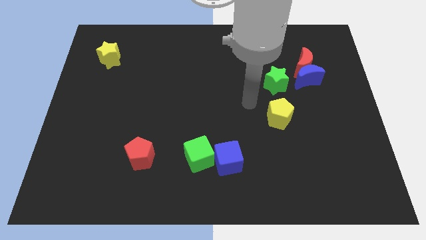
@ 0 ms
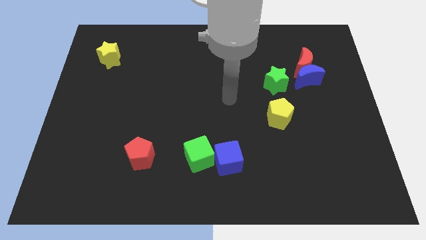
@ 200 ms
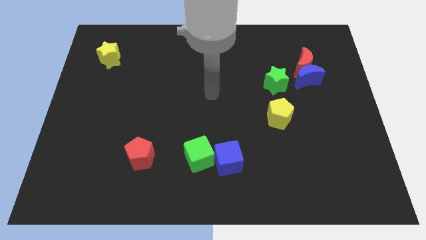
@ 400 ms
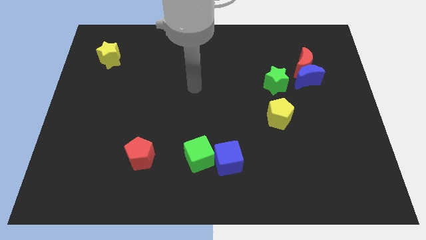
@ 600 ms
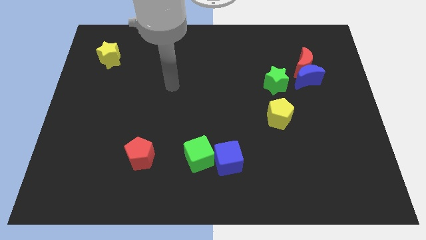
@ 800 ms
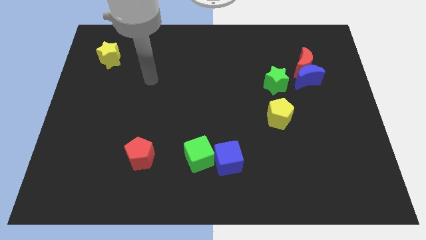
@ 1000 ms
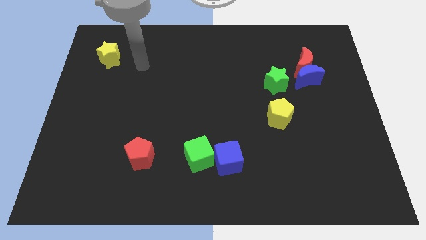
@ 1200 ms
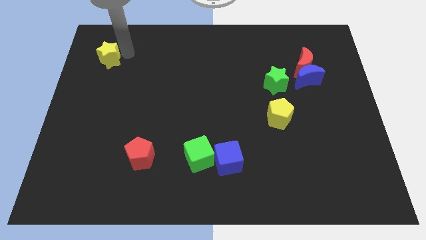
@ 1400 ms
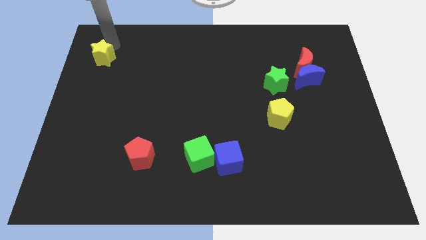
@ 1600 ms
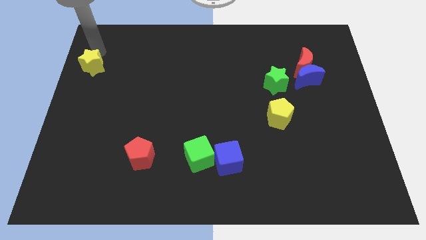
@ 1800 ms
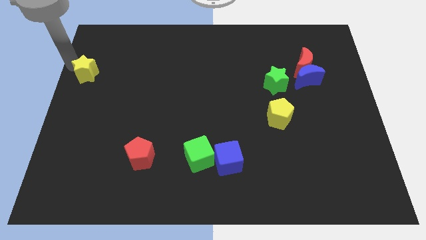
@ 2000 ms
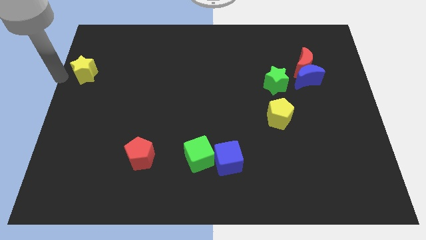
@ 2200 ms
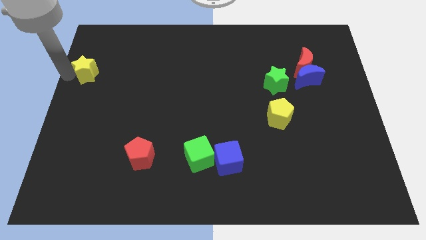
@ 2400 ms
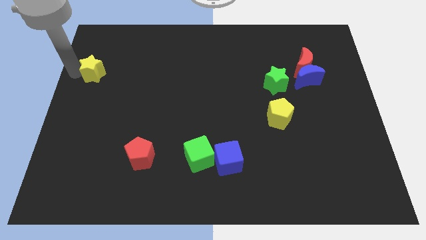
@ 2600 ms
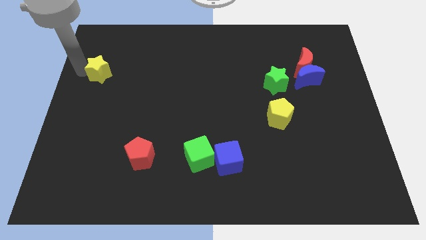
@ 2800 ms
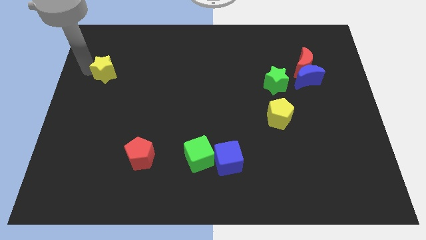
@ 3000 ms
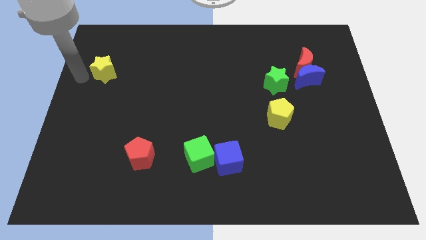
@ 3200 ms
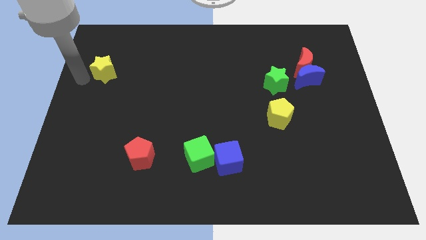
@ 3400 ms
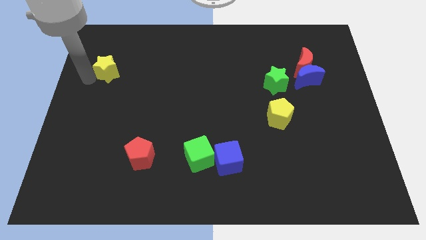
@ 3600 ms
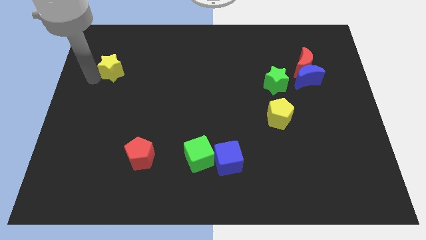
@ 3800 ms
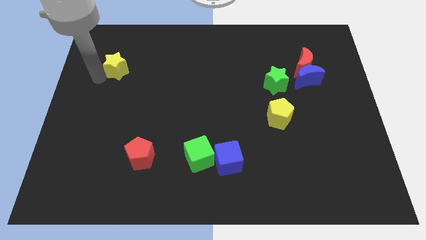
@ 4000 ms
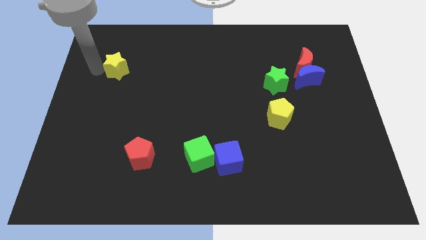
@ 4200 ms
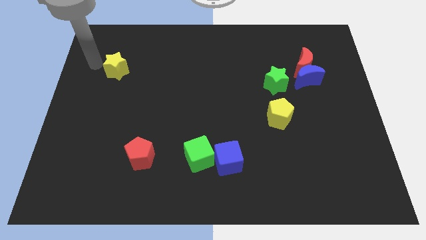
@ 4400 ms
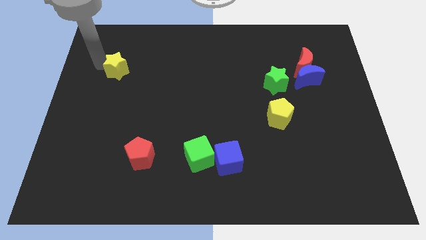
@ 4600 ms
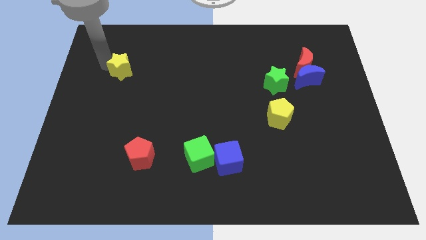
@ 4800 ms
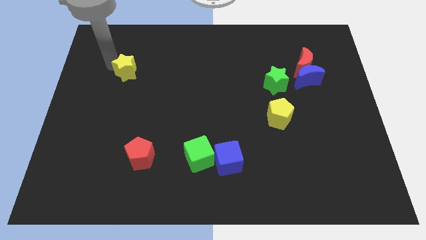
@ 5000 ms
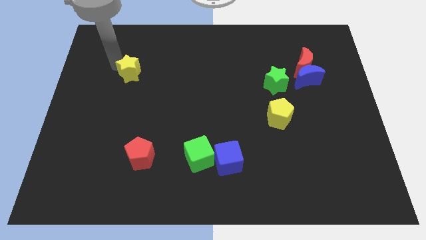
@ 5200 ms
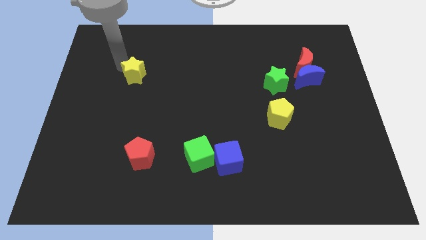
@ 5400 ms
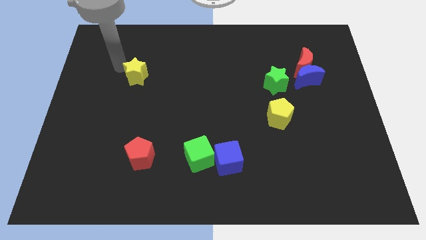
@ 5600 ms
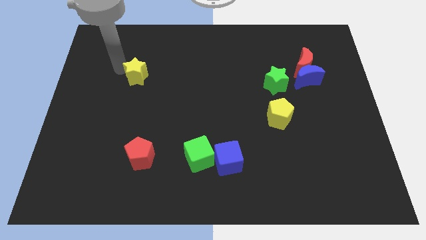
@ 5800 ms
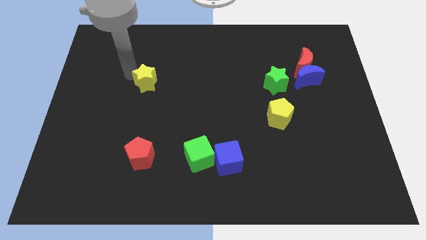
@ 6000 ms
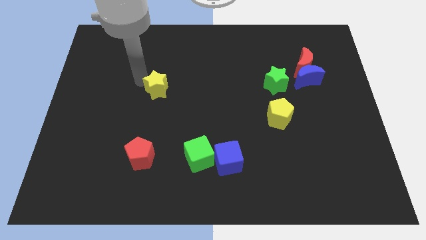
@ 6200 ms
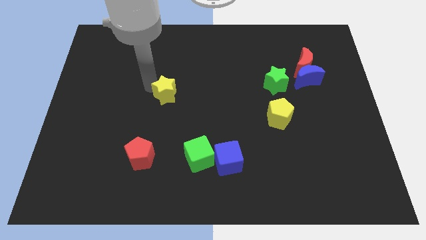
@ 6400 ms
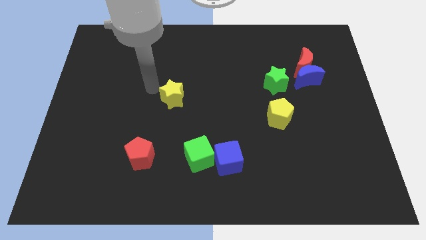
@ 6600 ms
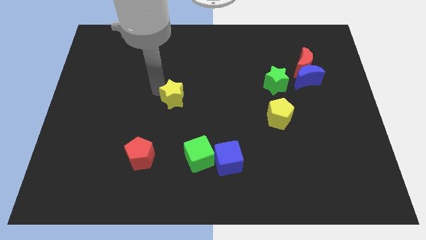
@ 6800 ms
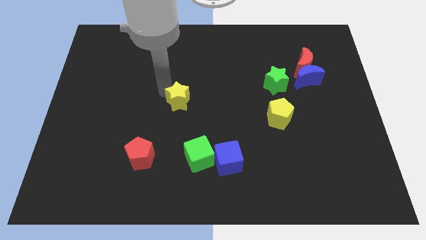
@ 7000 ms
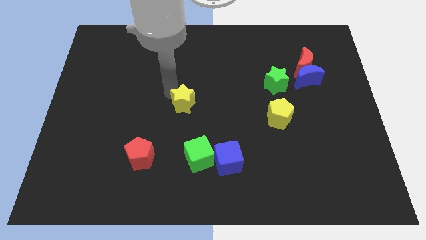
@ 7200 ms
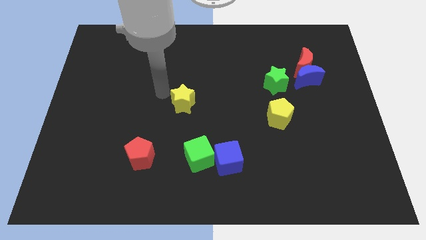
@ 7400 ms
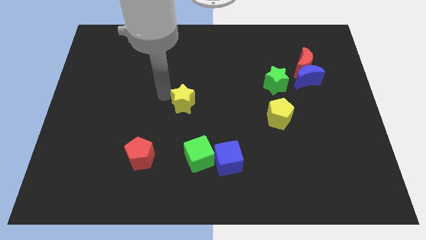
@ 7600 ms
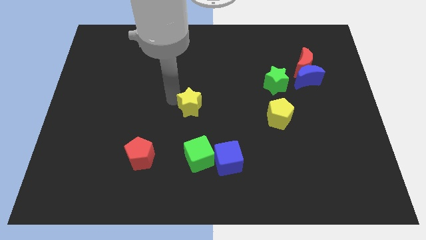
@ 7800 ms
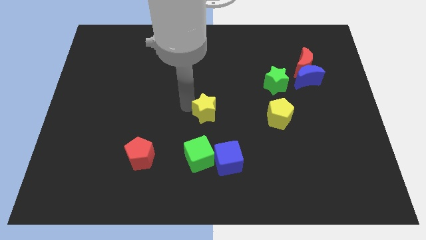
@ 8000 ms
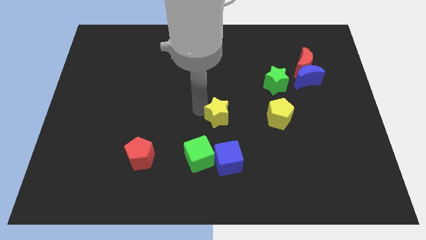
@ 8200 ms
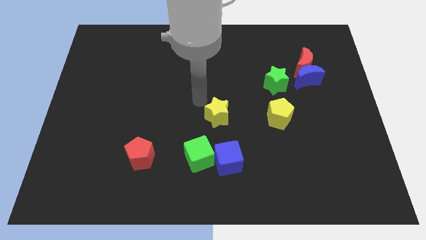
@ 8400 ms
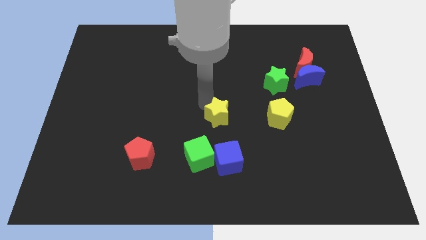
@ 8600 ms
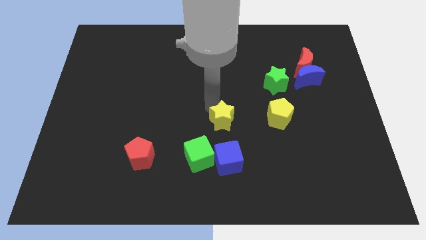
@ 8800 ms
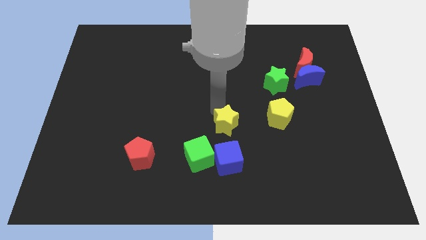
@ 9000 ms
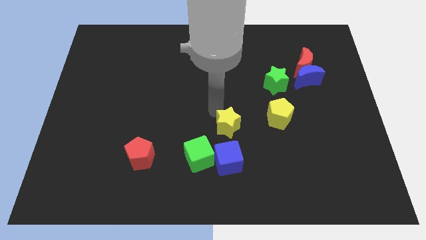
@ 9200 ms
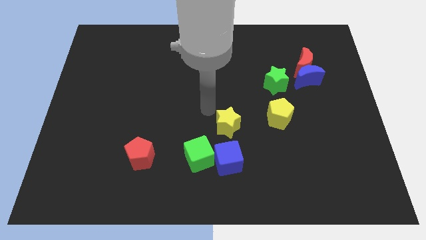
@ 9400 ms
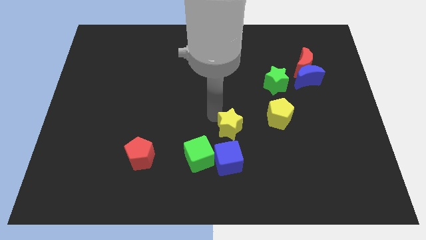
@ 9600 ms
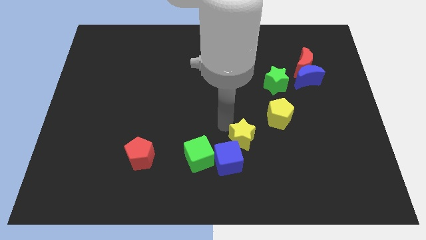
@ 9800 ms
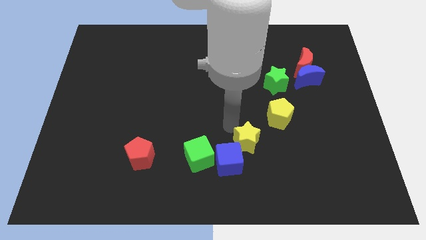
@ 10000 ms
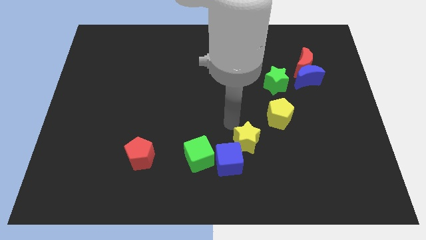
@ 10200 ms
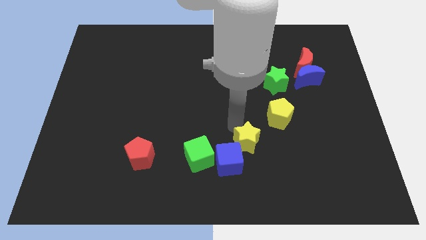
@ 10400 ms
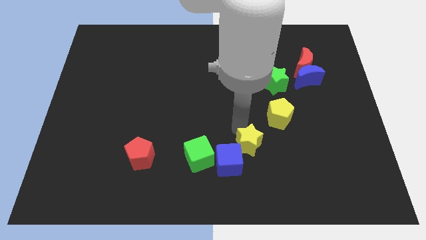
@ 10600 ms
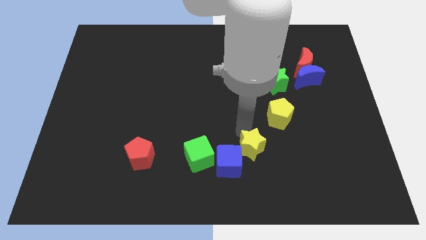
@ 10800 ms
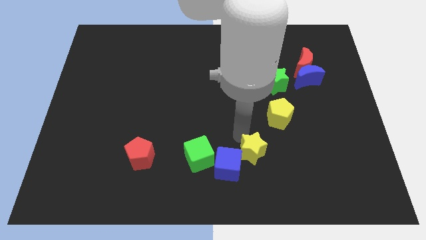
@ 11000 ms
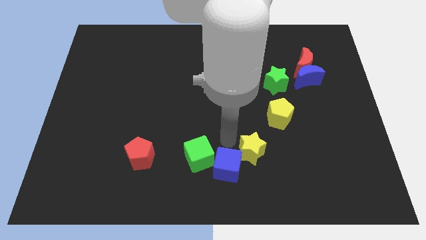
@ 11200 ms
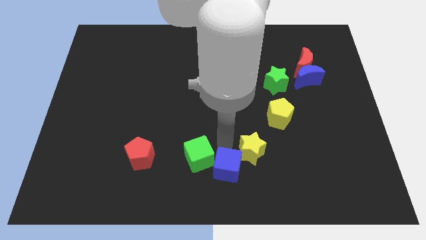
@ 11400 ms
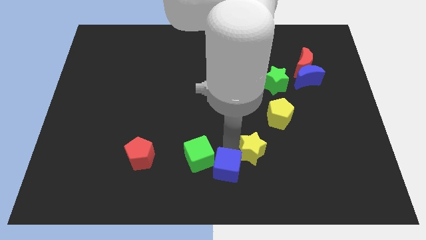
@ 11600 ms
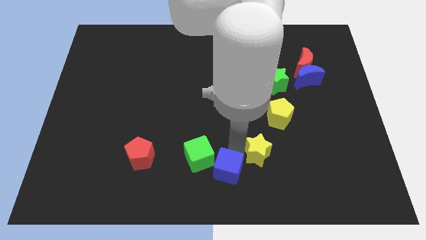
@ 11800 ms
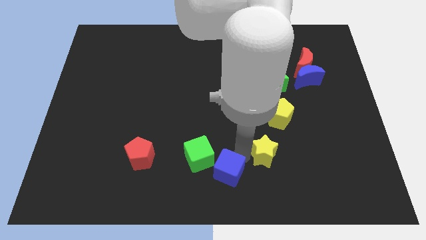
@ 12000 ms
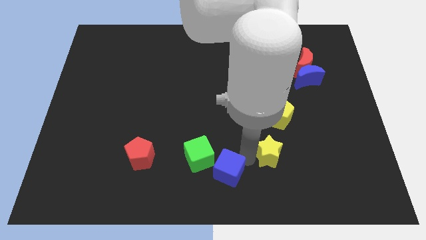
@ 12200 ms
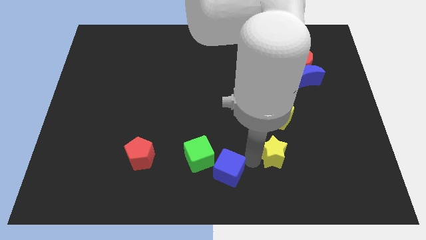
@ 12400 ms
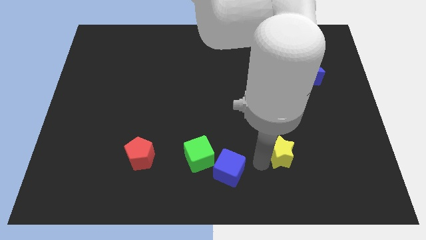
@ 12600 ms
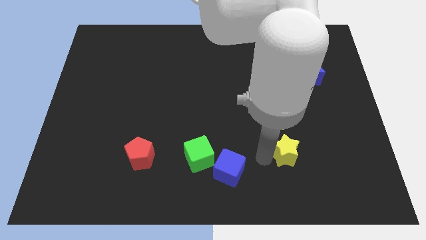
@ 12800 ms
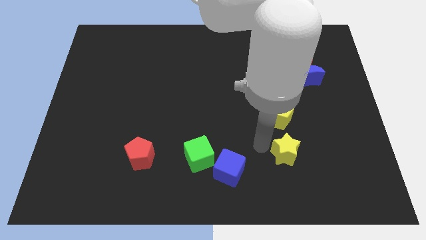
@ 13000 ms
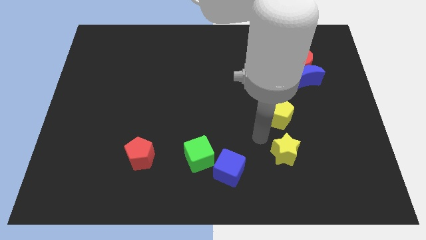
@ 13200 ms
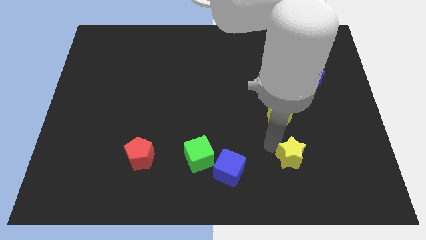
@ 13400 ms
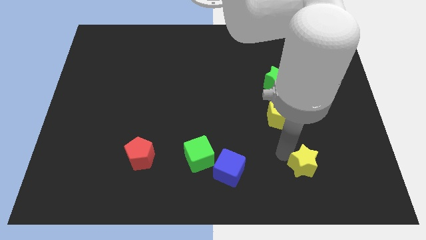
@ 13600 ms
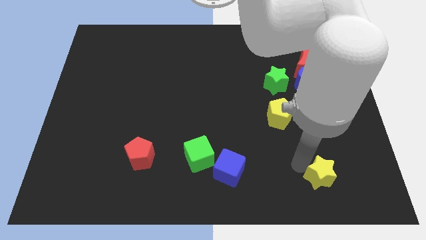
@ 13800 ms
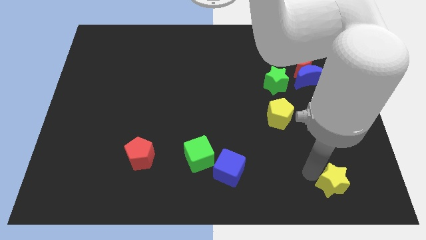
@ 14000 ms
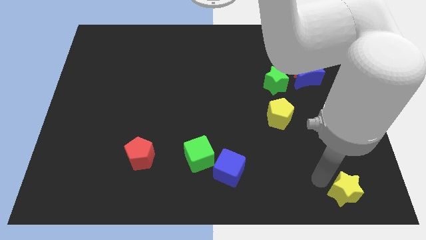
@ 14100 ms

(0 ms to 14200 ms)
push the yellow star to the bottom right corner

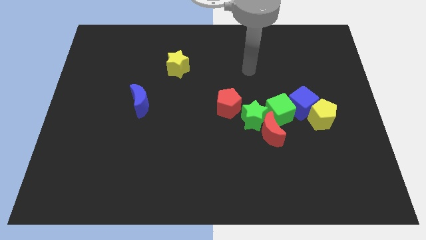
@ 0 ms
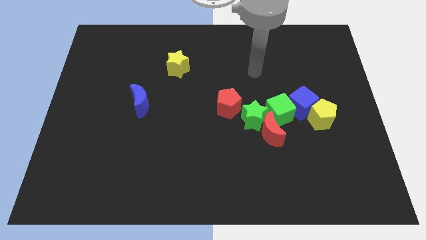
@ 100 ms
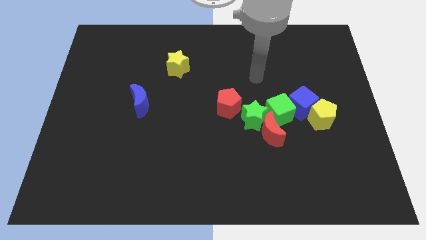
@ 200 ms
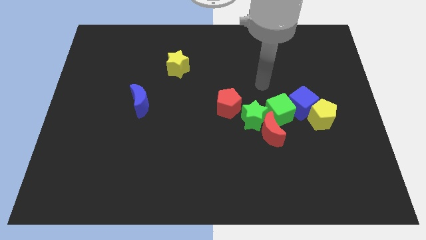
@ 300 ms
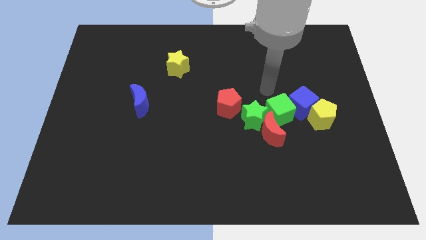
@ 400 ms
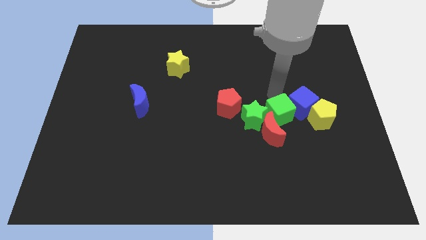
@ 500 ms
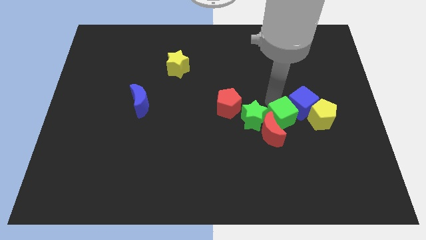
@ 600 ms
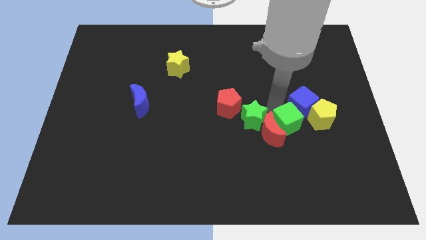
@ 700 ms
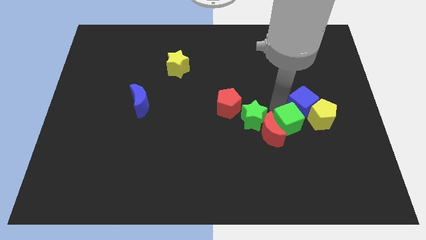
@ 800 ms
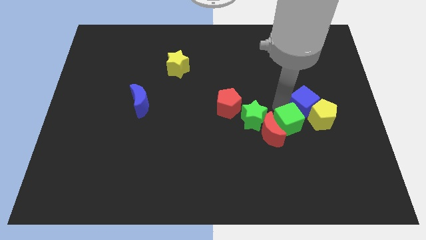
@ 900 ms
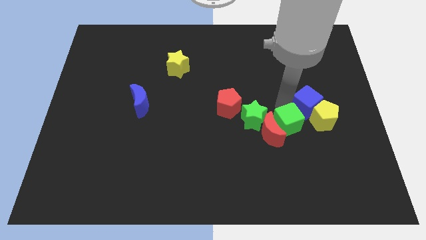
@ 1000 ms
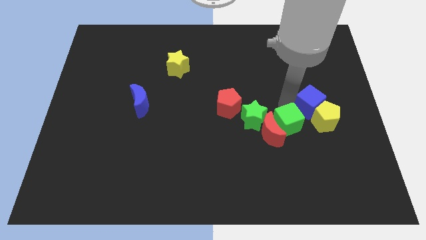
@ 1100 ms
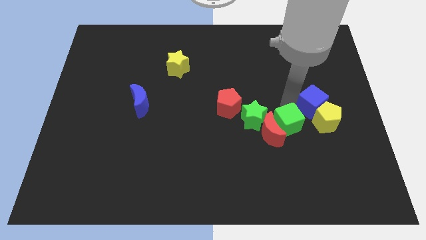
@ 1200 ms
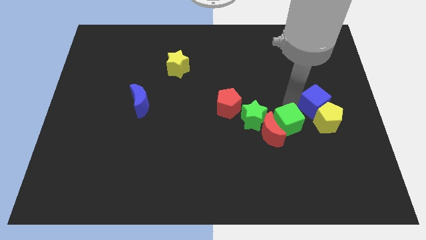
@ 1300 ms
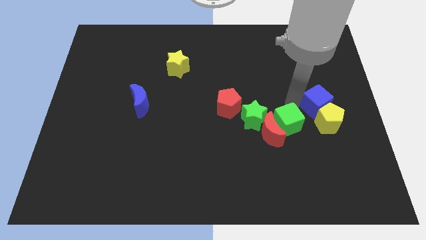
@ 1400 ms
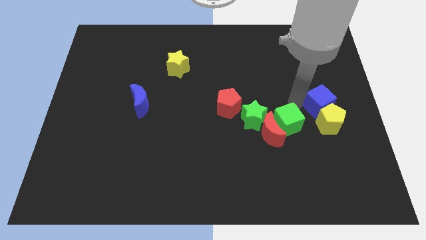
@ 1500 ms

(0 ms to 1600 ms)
put the blue cube to the center right
